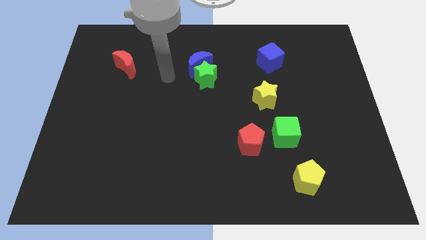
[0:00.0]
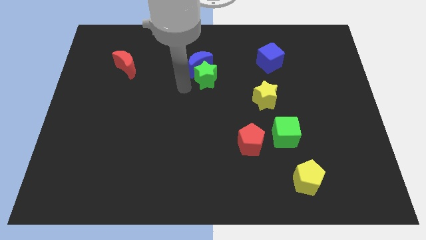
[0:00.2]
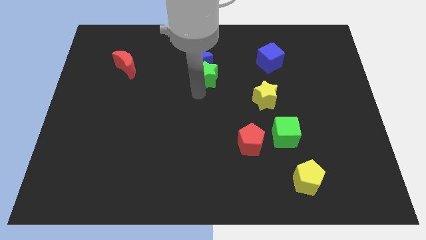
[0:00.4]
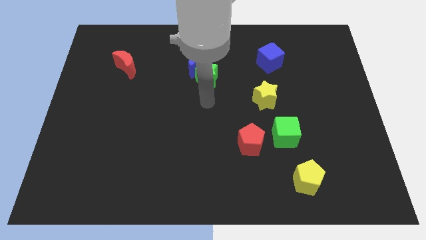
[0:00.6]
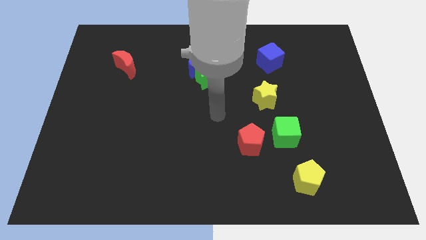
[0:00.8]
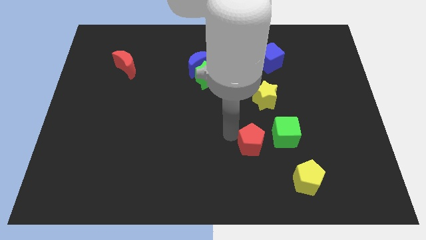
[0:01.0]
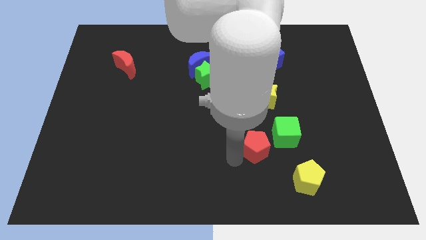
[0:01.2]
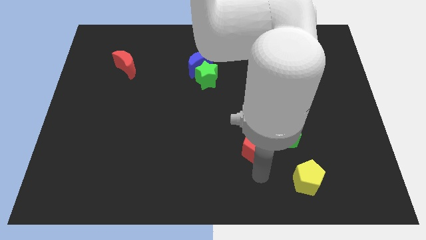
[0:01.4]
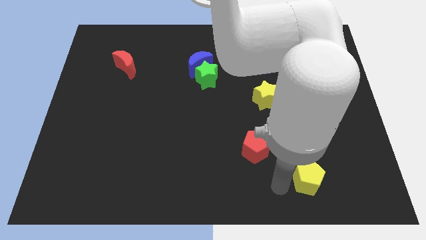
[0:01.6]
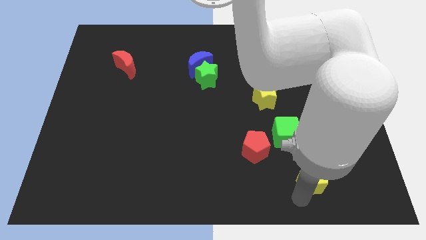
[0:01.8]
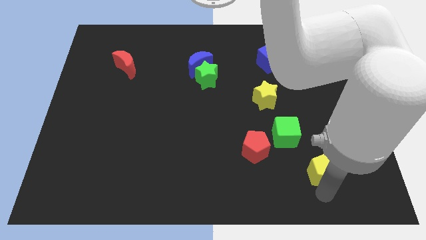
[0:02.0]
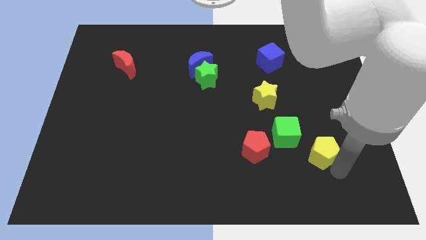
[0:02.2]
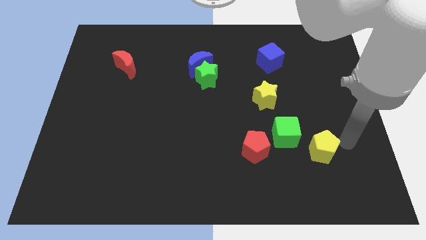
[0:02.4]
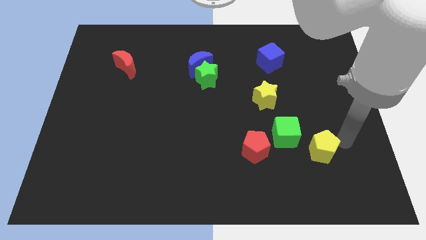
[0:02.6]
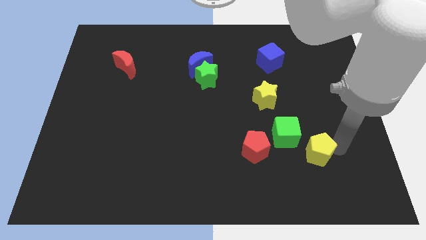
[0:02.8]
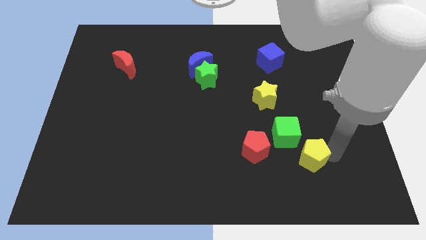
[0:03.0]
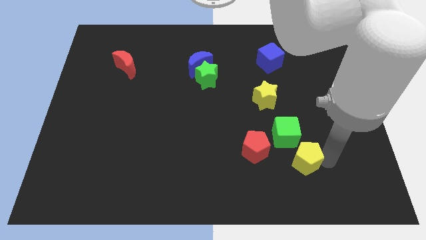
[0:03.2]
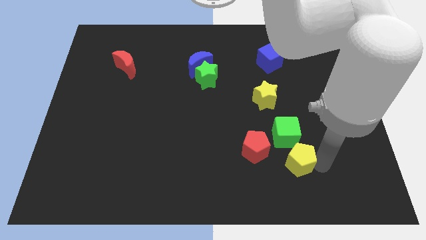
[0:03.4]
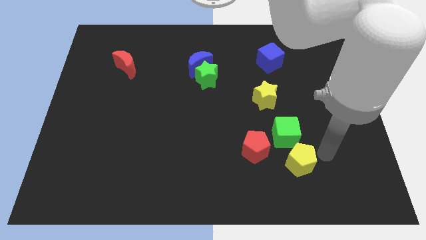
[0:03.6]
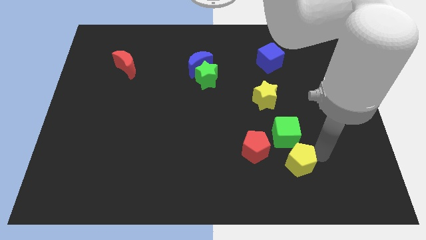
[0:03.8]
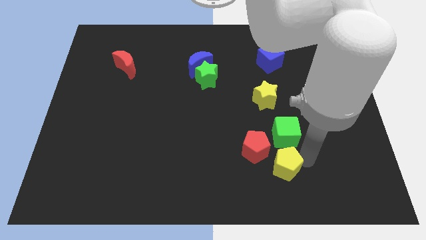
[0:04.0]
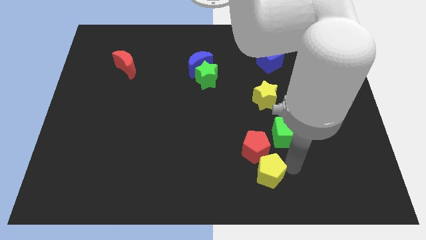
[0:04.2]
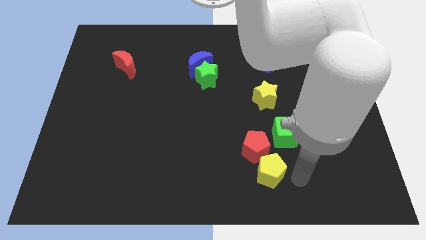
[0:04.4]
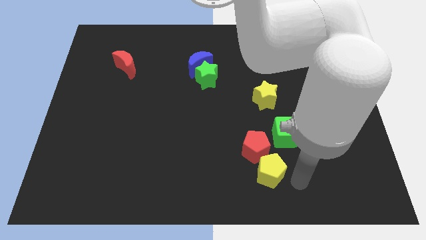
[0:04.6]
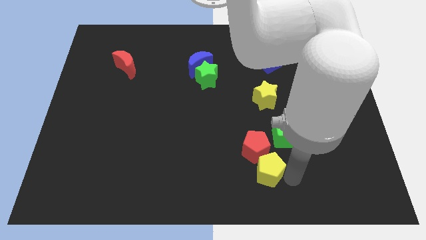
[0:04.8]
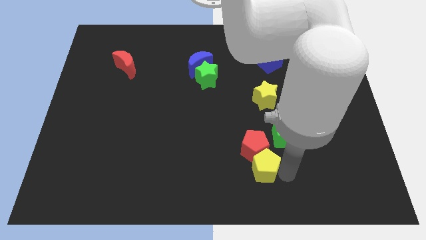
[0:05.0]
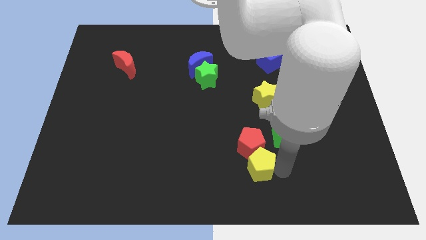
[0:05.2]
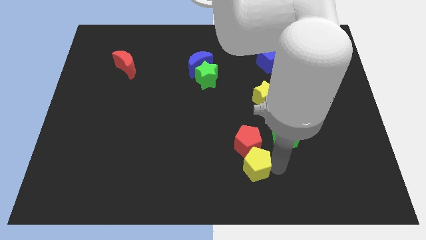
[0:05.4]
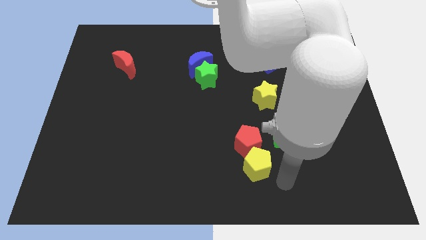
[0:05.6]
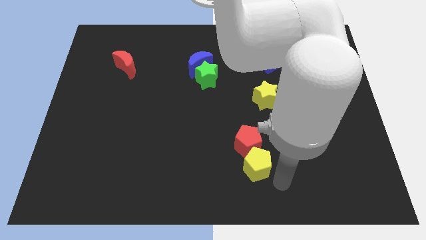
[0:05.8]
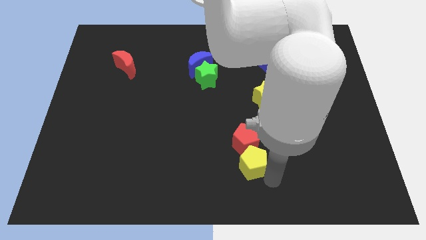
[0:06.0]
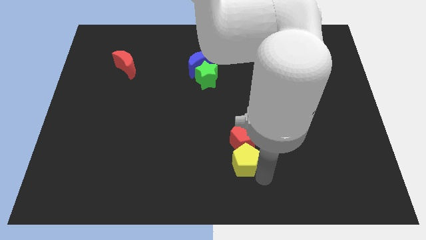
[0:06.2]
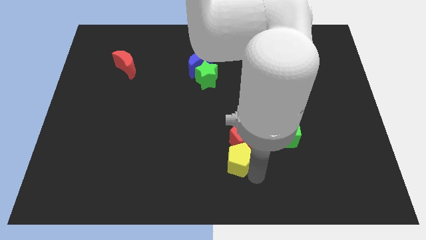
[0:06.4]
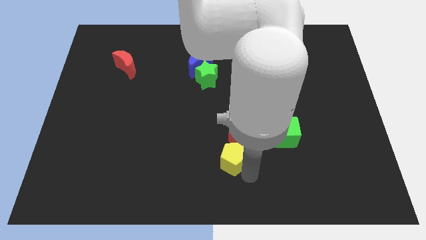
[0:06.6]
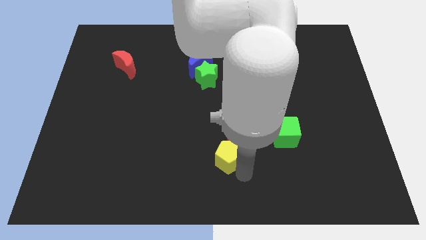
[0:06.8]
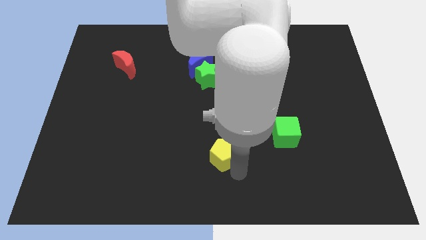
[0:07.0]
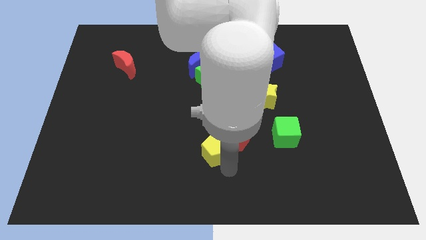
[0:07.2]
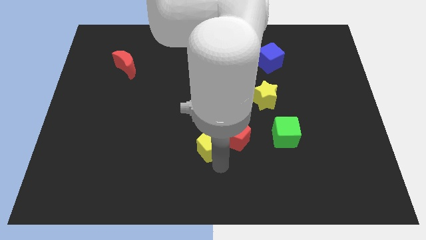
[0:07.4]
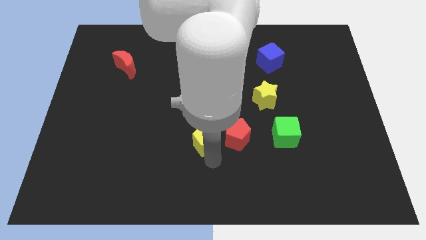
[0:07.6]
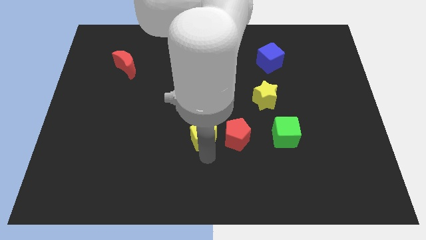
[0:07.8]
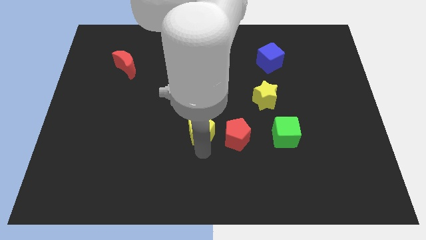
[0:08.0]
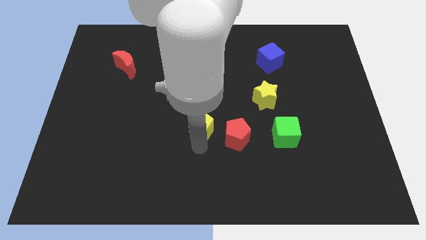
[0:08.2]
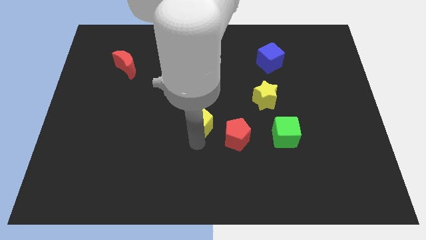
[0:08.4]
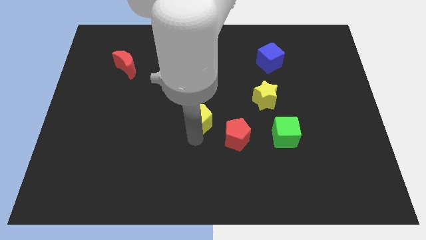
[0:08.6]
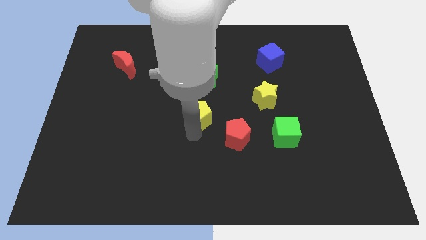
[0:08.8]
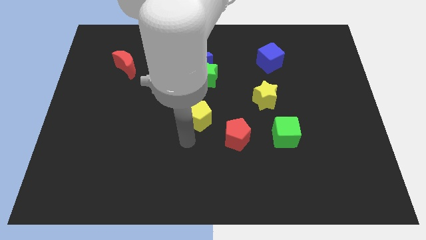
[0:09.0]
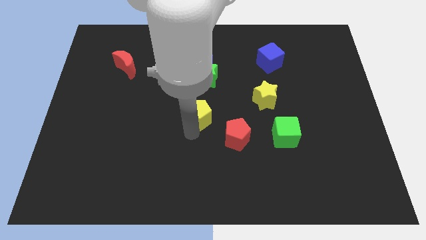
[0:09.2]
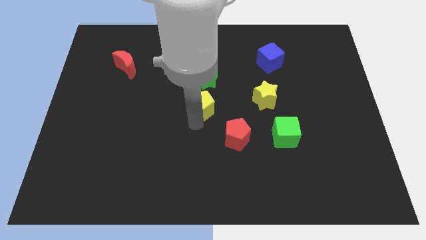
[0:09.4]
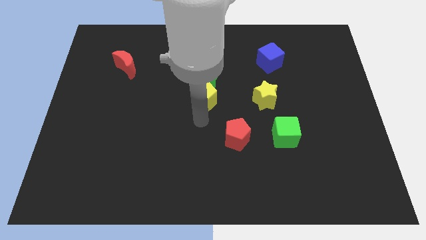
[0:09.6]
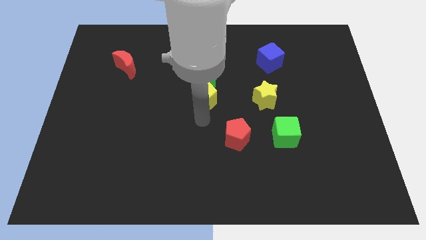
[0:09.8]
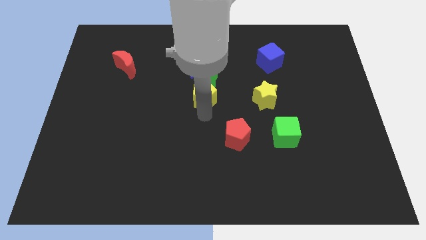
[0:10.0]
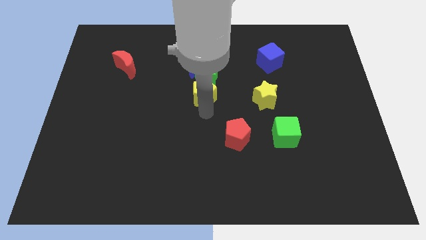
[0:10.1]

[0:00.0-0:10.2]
slide the yellow pentagon towards the green star

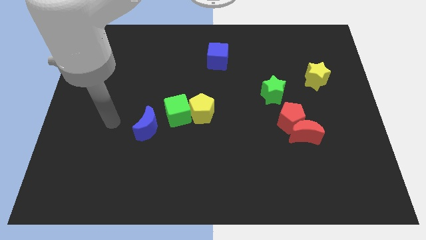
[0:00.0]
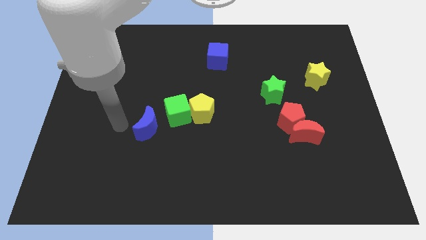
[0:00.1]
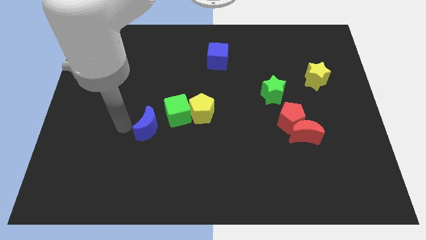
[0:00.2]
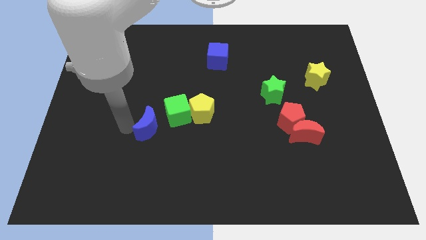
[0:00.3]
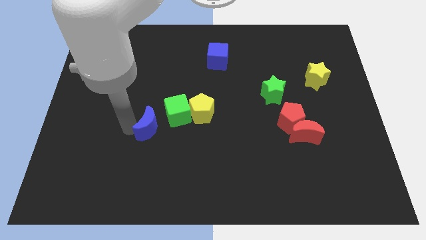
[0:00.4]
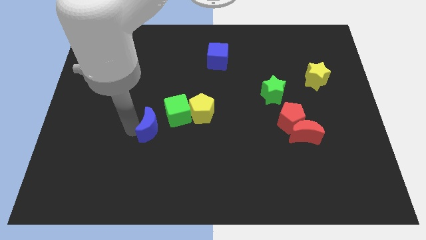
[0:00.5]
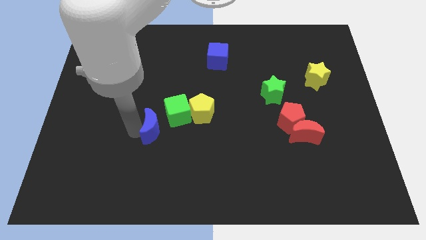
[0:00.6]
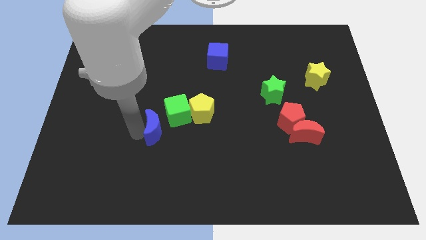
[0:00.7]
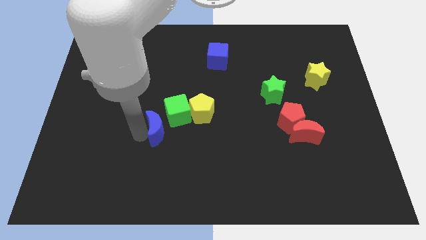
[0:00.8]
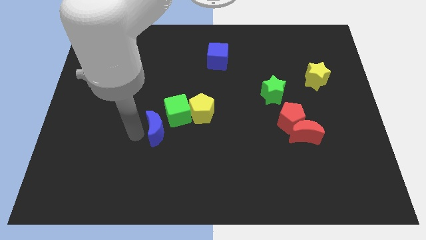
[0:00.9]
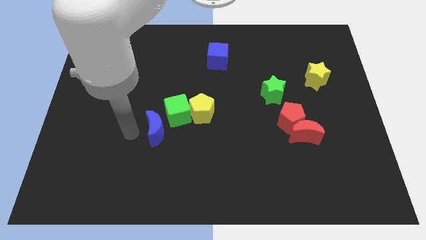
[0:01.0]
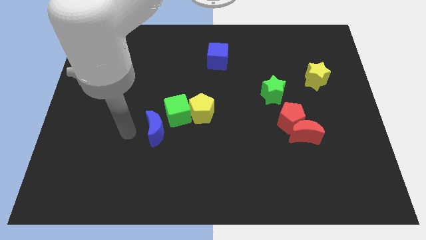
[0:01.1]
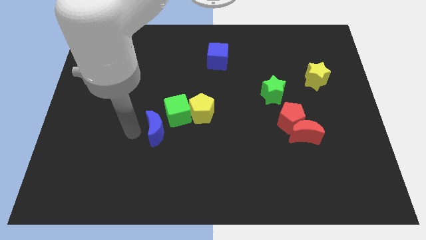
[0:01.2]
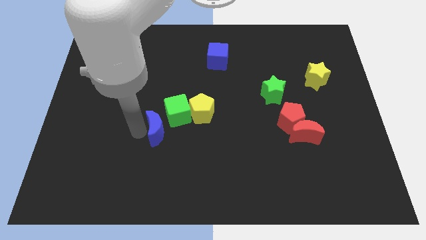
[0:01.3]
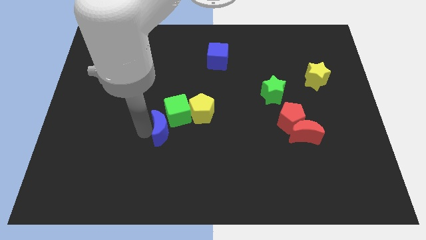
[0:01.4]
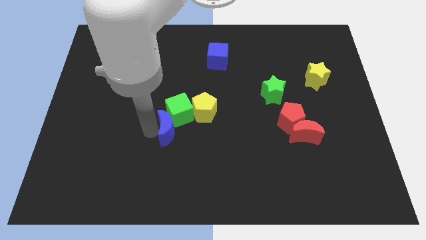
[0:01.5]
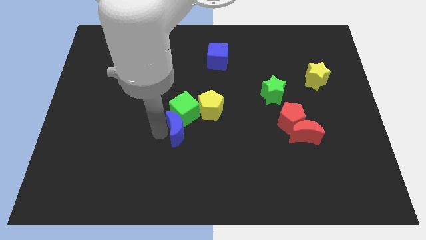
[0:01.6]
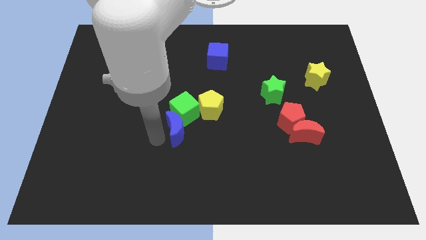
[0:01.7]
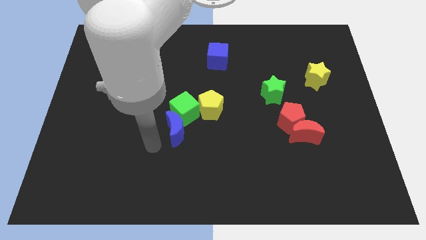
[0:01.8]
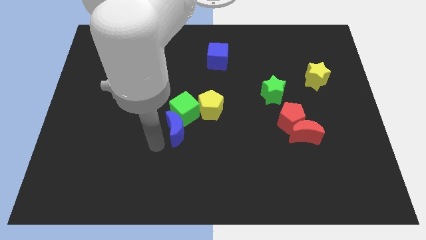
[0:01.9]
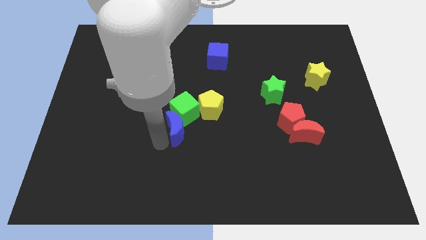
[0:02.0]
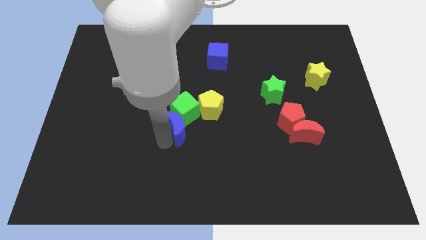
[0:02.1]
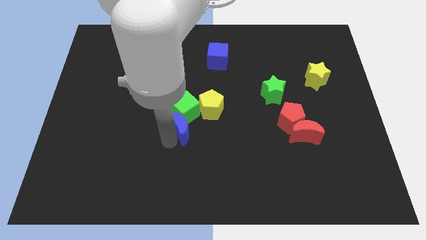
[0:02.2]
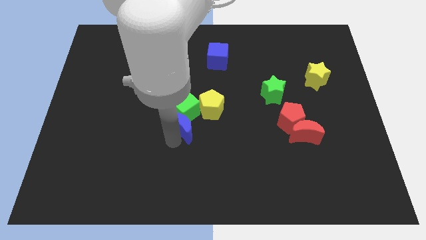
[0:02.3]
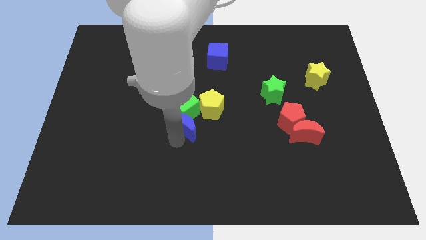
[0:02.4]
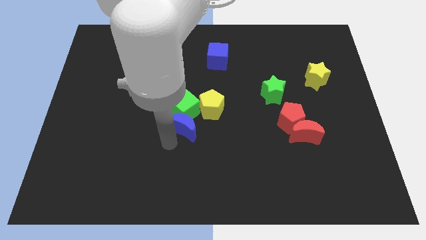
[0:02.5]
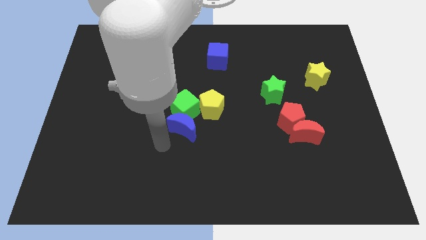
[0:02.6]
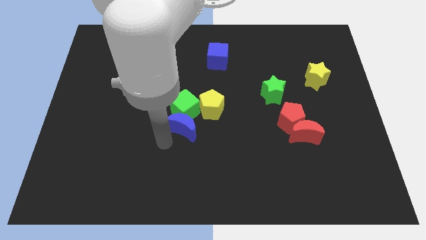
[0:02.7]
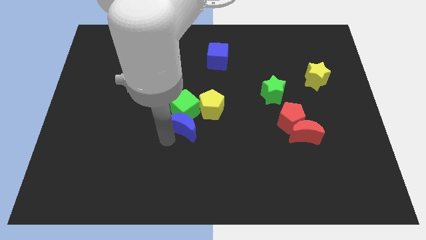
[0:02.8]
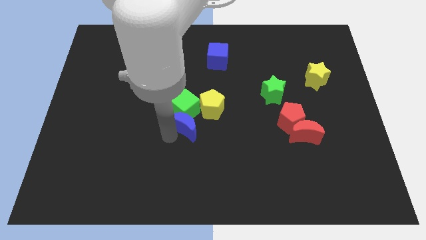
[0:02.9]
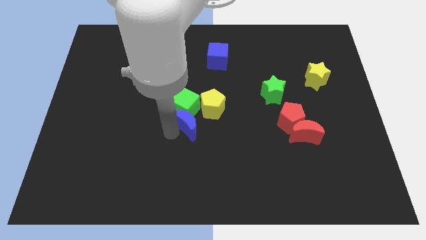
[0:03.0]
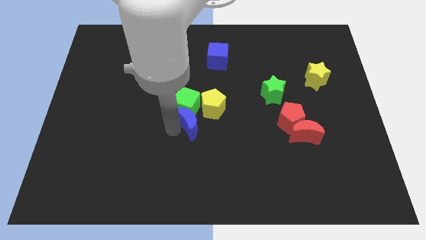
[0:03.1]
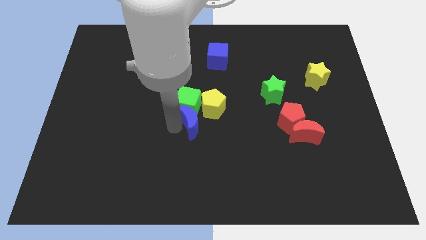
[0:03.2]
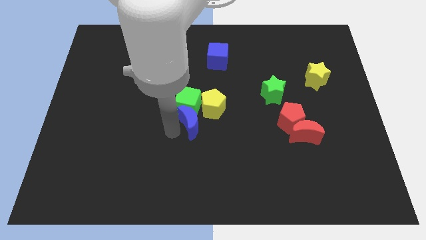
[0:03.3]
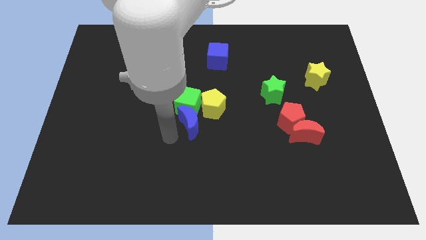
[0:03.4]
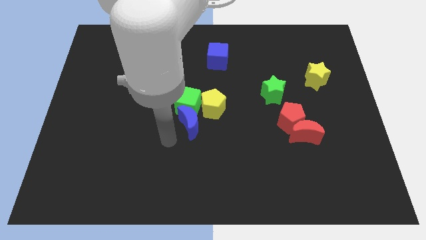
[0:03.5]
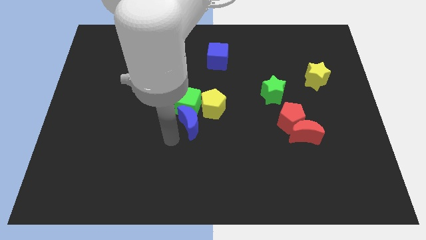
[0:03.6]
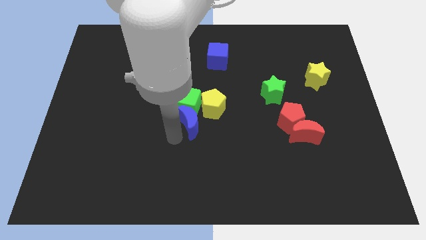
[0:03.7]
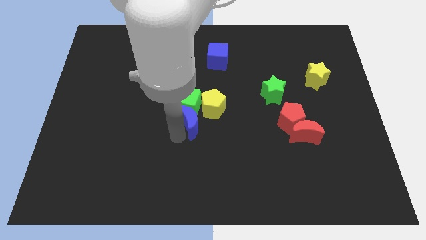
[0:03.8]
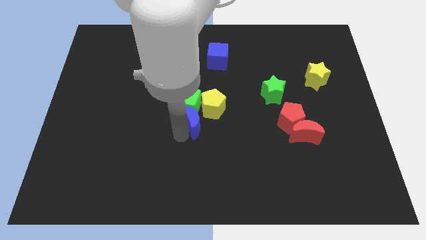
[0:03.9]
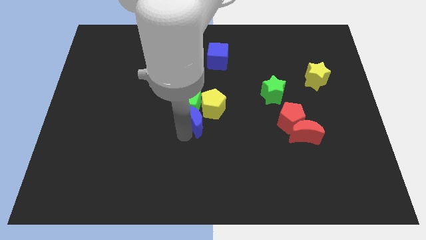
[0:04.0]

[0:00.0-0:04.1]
slide the blue moon to the yellow pentagon
